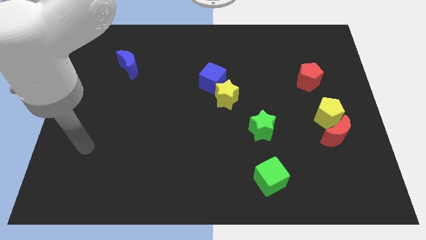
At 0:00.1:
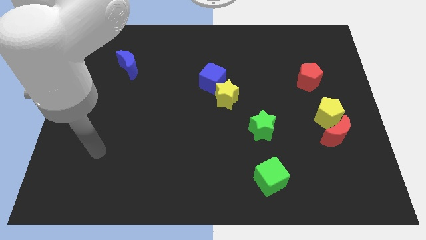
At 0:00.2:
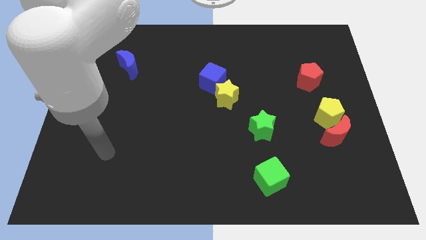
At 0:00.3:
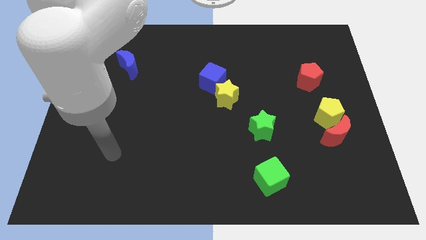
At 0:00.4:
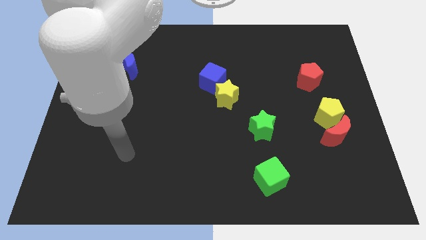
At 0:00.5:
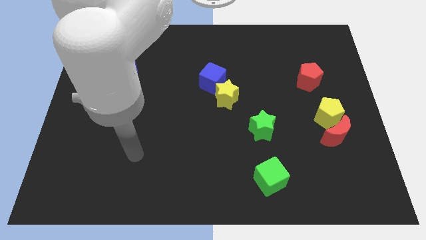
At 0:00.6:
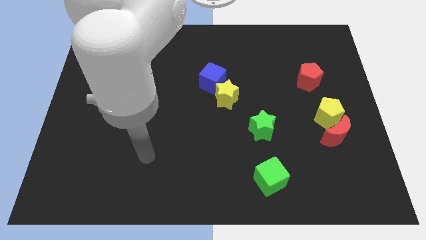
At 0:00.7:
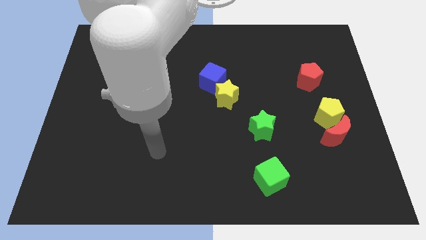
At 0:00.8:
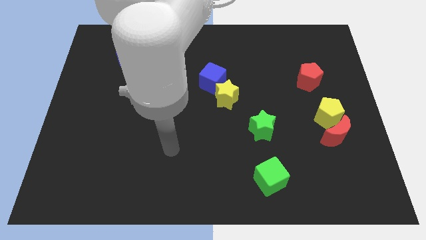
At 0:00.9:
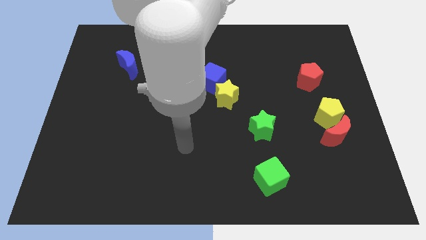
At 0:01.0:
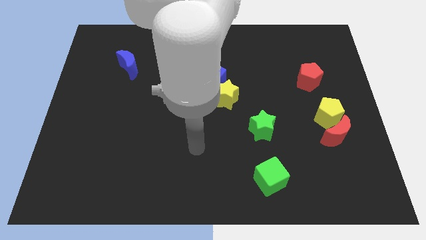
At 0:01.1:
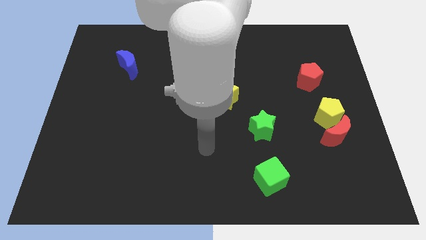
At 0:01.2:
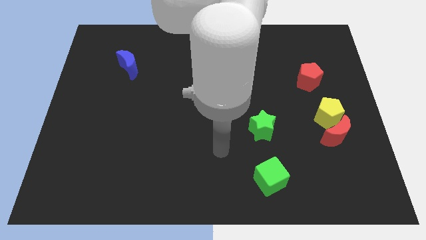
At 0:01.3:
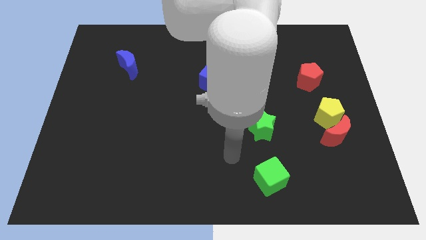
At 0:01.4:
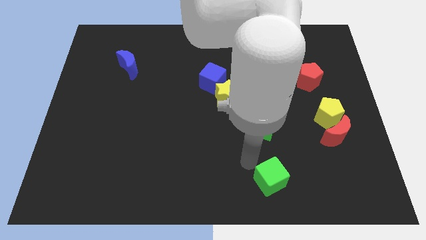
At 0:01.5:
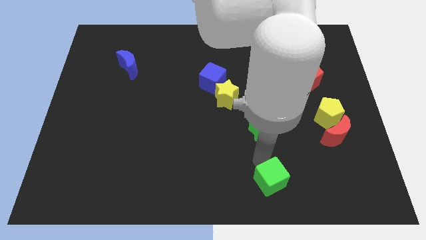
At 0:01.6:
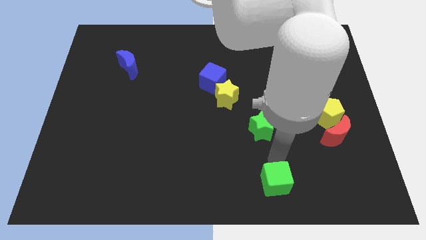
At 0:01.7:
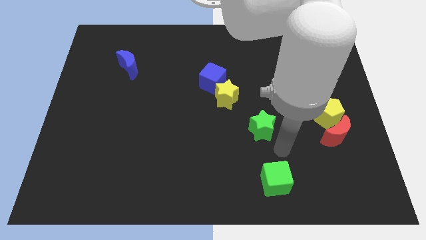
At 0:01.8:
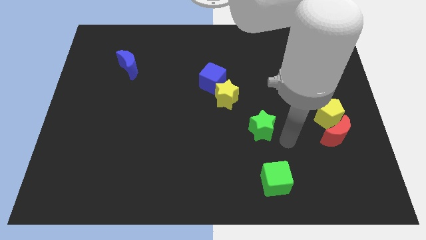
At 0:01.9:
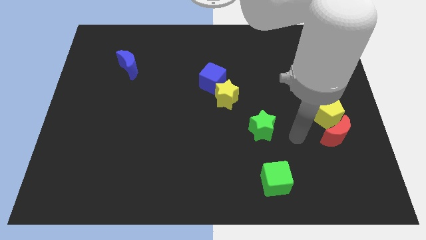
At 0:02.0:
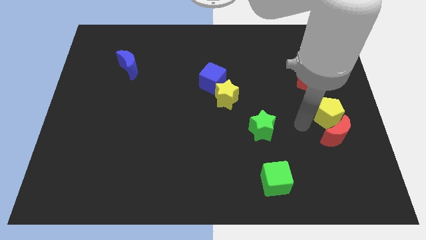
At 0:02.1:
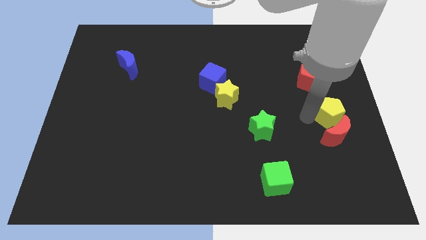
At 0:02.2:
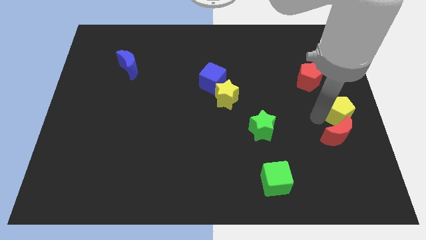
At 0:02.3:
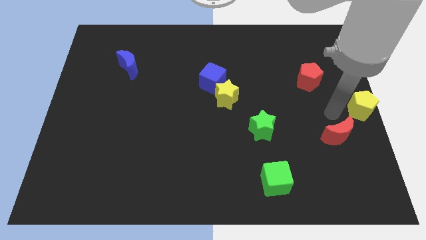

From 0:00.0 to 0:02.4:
move the red moon away from the yellow pentagon

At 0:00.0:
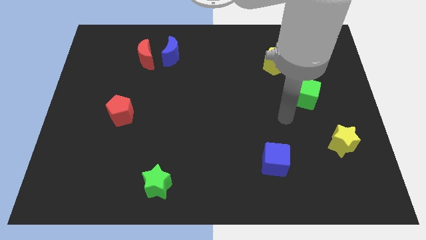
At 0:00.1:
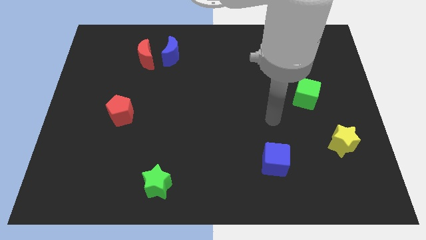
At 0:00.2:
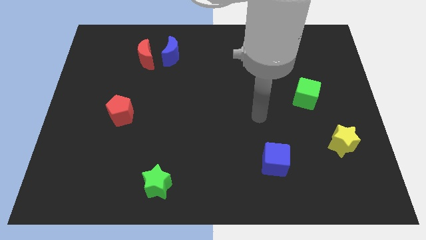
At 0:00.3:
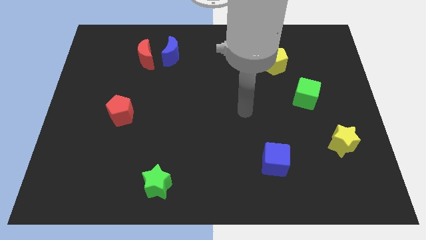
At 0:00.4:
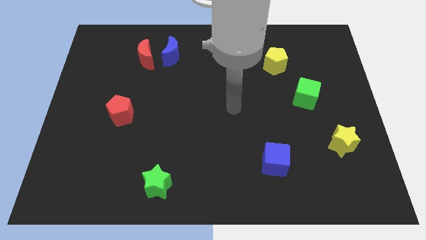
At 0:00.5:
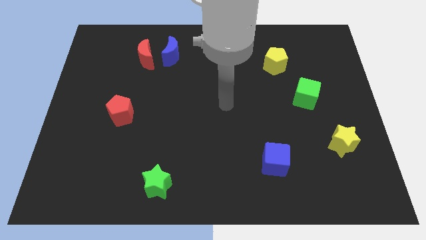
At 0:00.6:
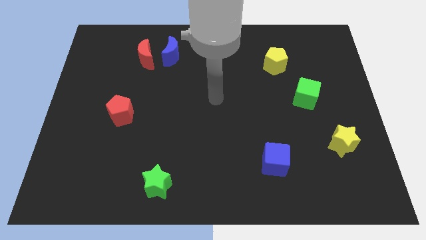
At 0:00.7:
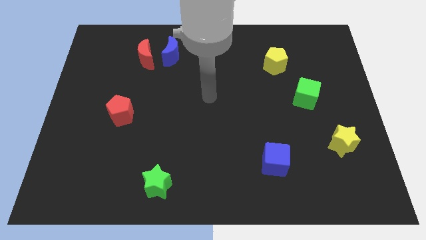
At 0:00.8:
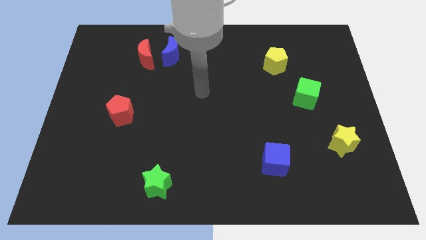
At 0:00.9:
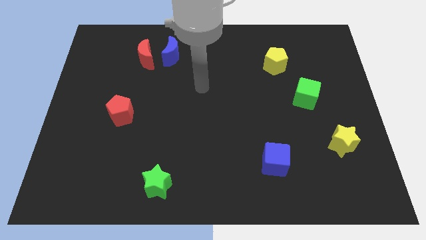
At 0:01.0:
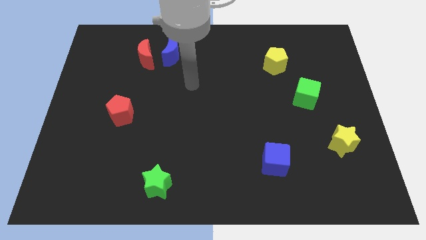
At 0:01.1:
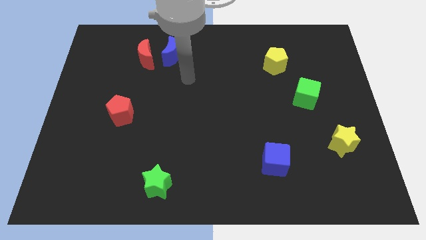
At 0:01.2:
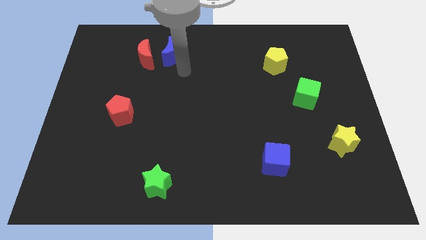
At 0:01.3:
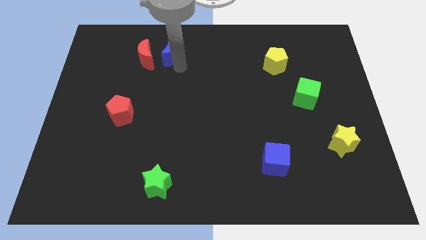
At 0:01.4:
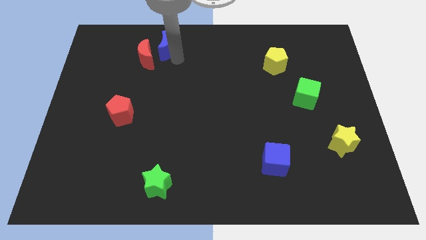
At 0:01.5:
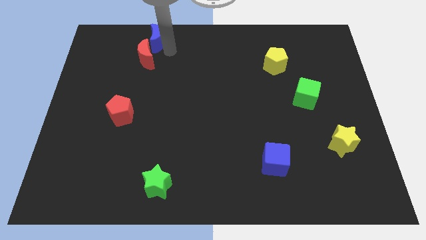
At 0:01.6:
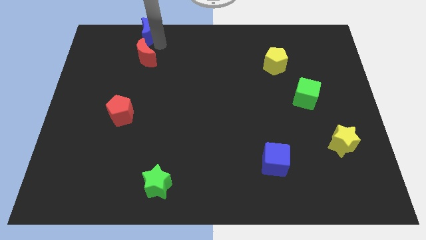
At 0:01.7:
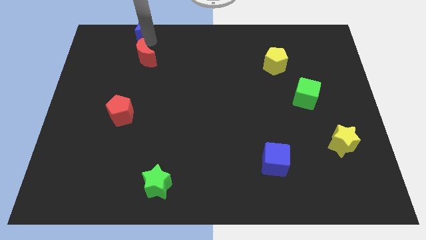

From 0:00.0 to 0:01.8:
move the red moon away from the blue moon

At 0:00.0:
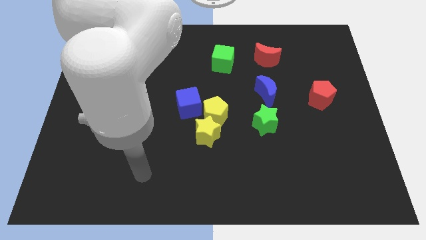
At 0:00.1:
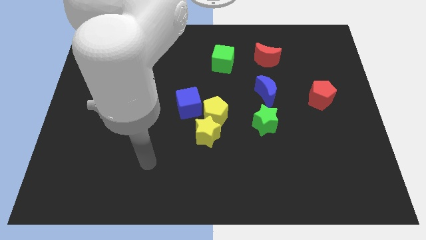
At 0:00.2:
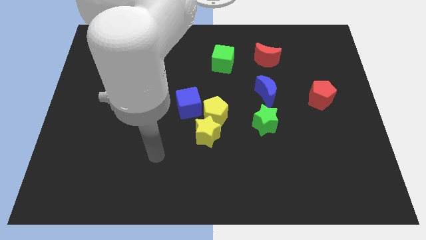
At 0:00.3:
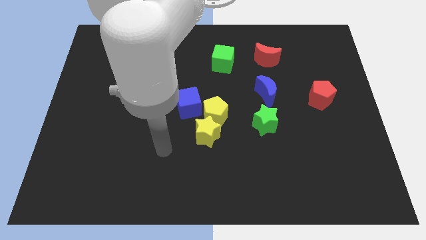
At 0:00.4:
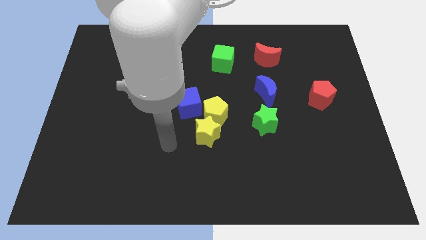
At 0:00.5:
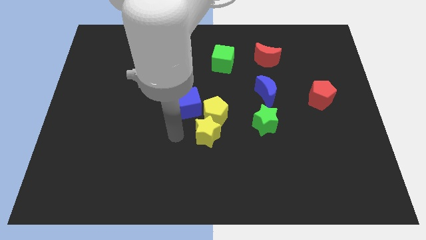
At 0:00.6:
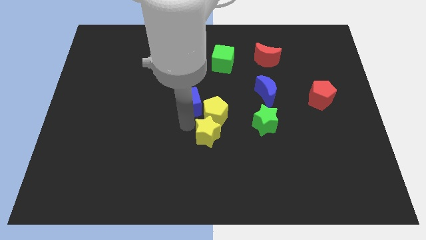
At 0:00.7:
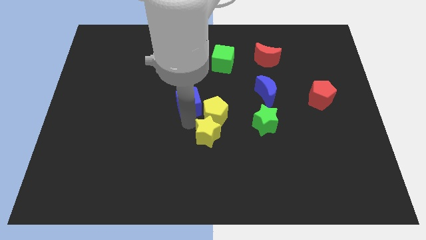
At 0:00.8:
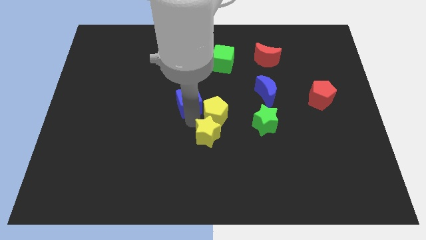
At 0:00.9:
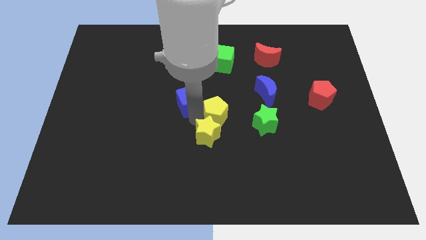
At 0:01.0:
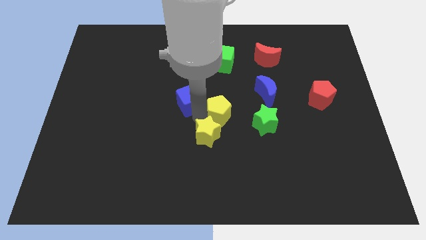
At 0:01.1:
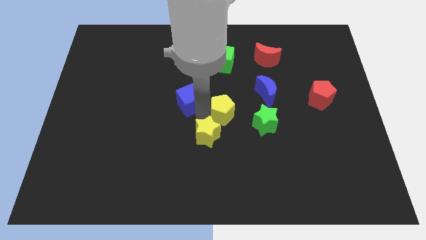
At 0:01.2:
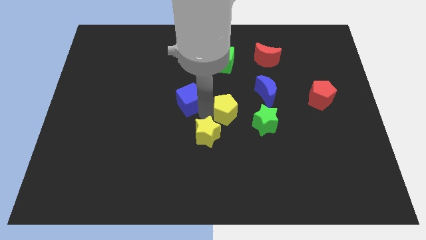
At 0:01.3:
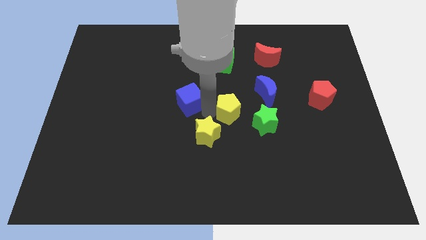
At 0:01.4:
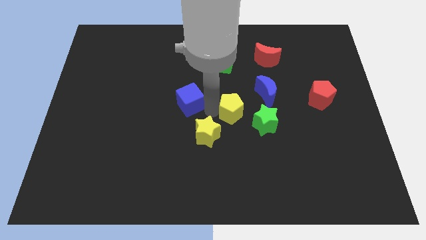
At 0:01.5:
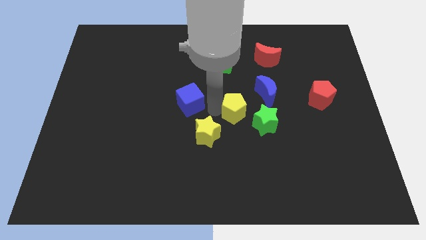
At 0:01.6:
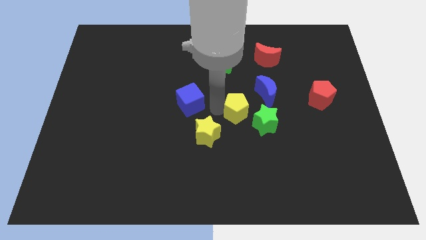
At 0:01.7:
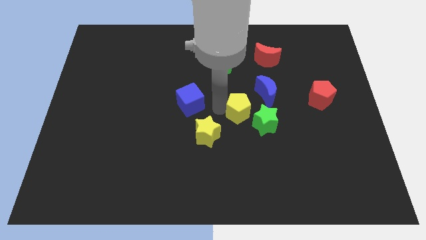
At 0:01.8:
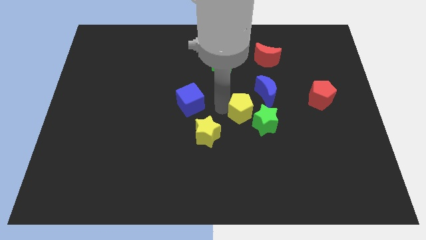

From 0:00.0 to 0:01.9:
pull the yellow pentagon apart from the yellow star and blue cube

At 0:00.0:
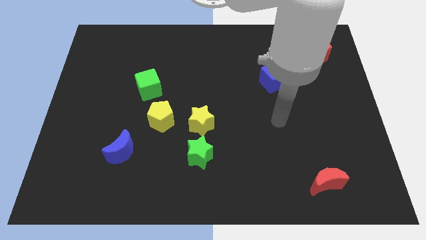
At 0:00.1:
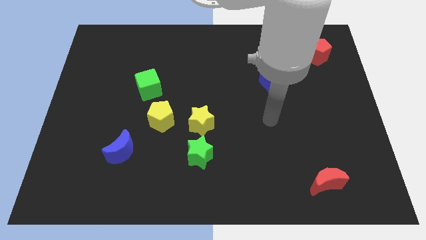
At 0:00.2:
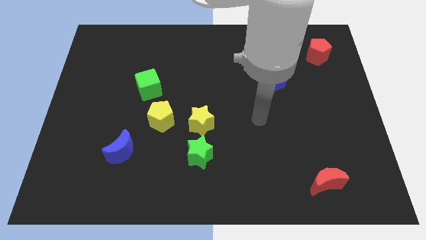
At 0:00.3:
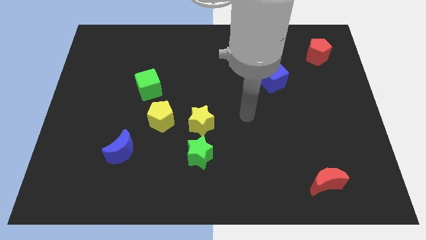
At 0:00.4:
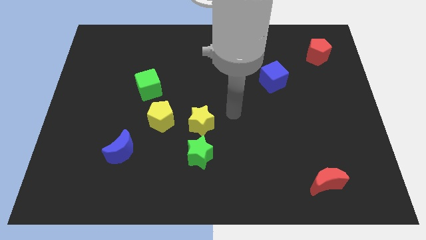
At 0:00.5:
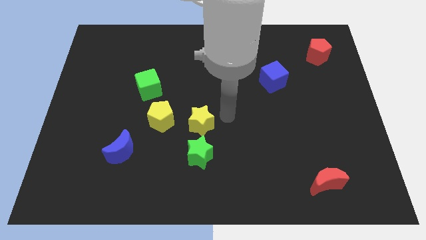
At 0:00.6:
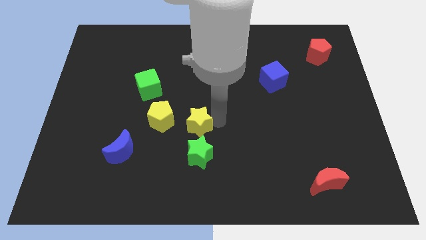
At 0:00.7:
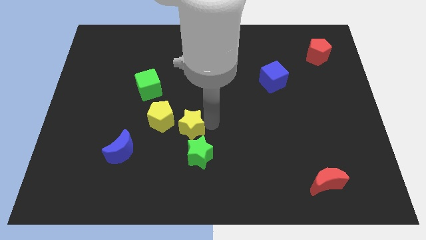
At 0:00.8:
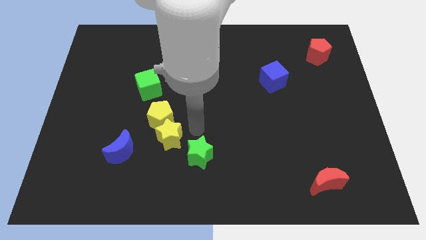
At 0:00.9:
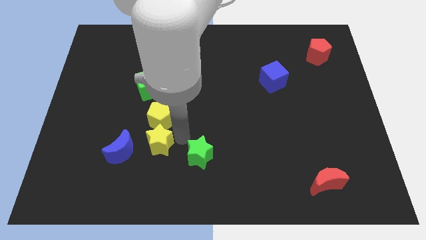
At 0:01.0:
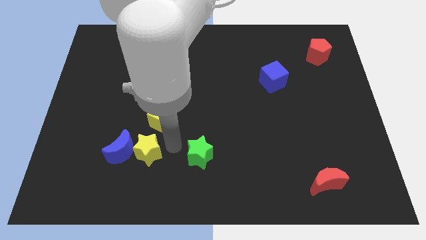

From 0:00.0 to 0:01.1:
separate the green star from the yellow star

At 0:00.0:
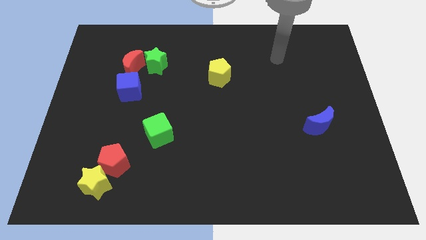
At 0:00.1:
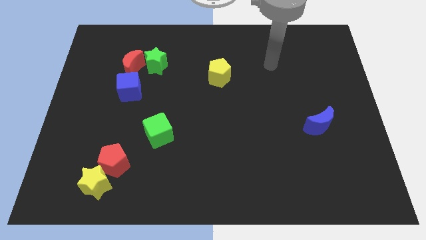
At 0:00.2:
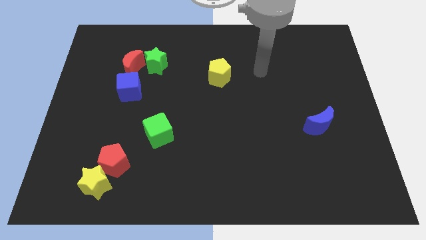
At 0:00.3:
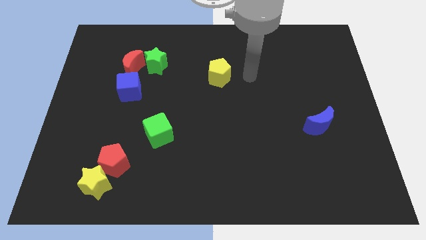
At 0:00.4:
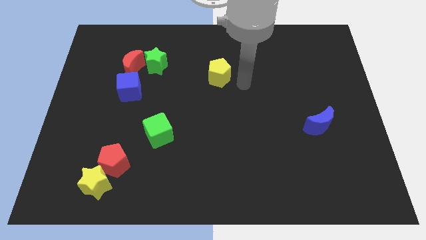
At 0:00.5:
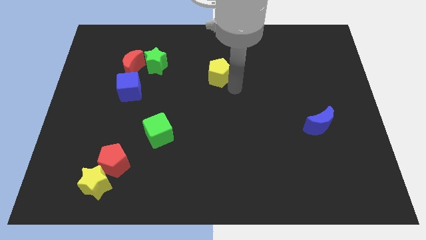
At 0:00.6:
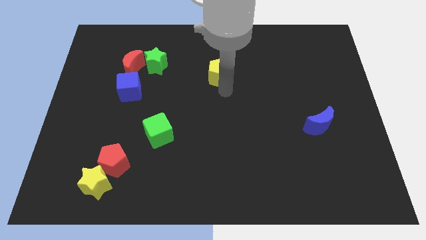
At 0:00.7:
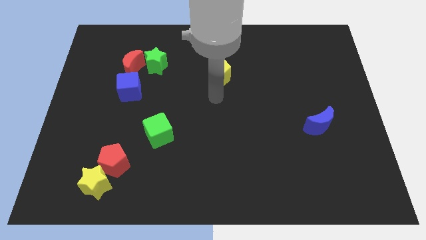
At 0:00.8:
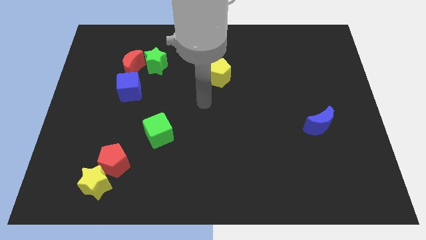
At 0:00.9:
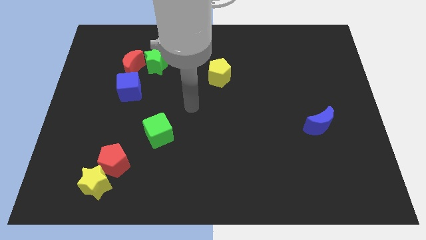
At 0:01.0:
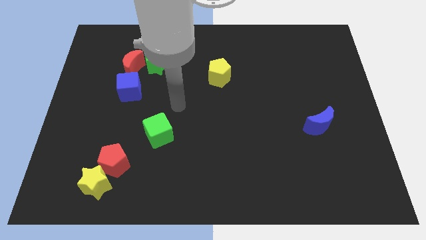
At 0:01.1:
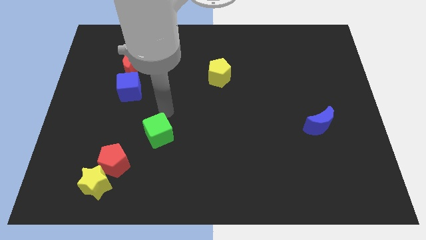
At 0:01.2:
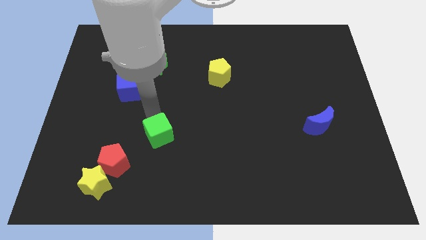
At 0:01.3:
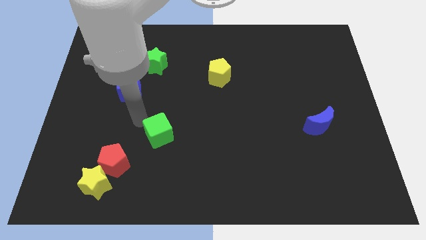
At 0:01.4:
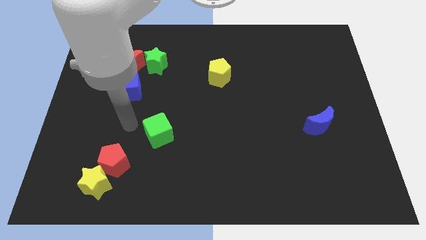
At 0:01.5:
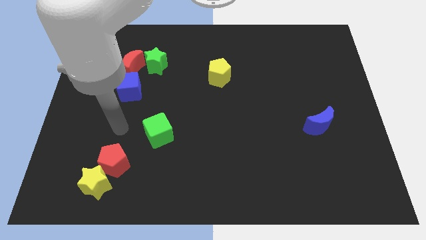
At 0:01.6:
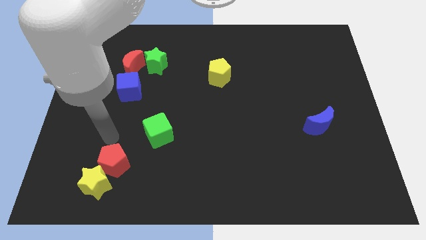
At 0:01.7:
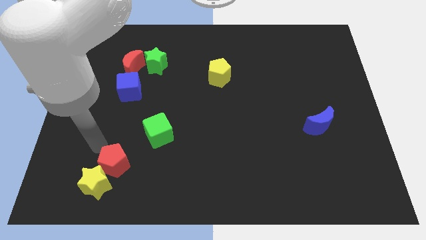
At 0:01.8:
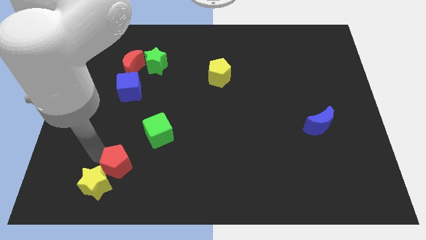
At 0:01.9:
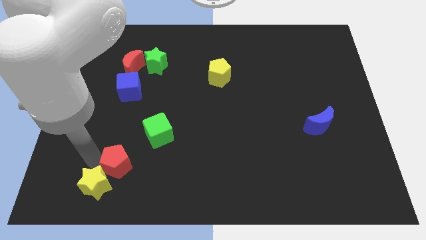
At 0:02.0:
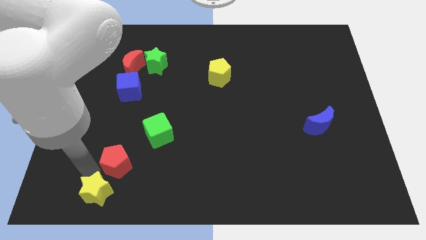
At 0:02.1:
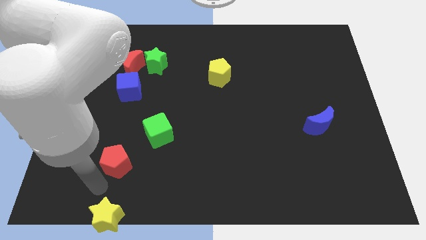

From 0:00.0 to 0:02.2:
separate the red pentagon from the yellow star
